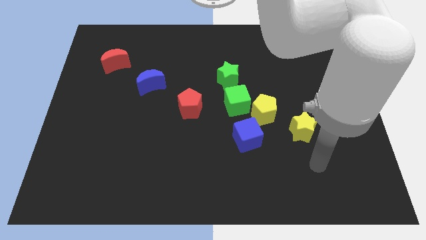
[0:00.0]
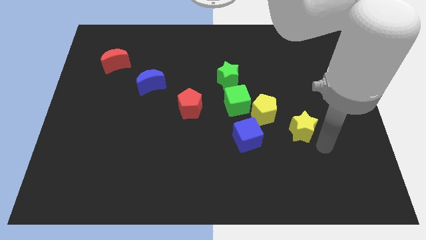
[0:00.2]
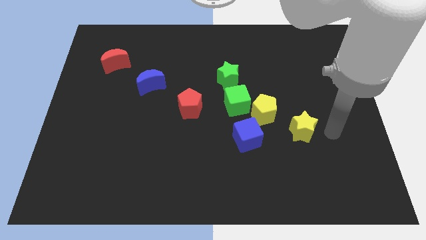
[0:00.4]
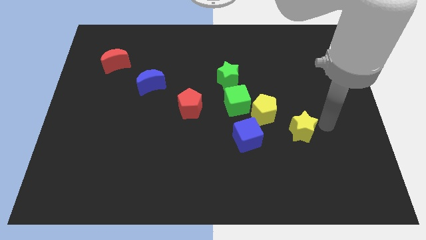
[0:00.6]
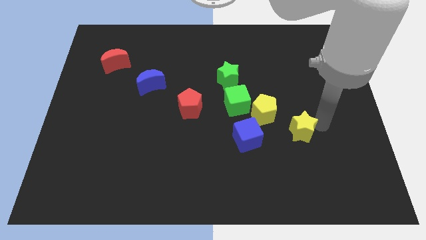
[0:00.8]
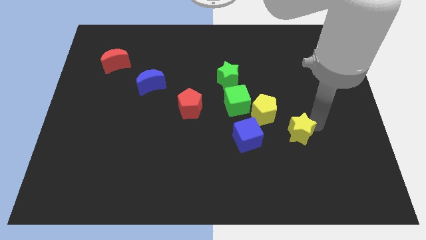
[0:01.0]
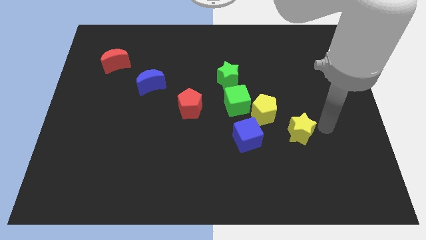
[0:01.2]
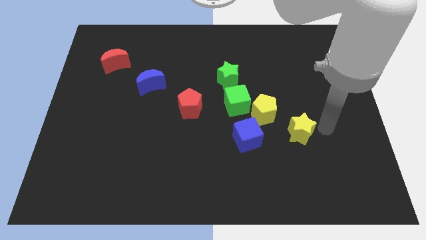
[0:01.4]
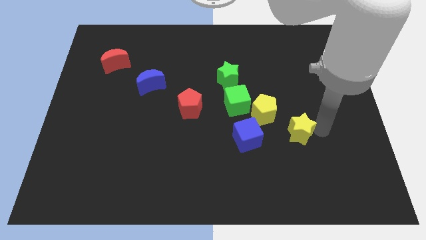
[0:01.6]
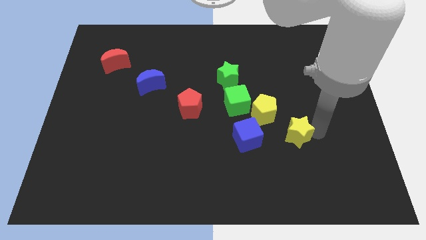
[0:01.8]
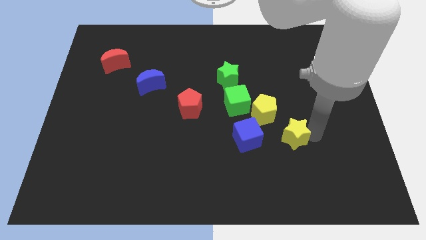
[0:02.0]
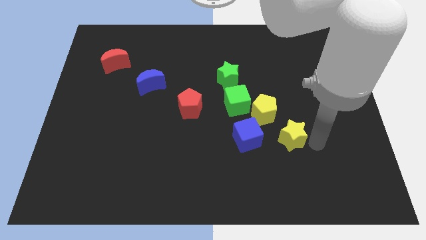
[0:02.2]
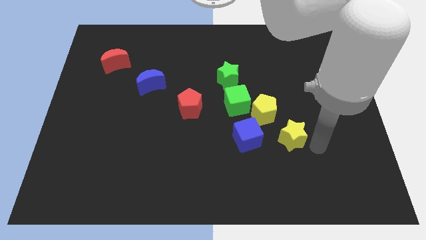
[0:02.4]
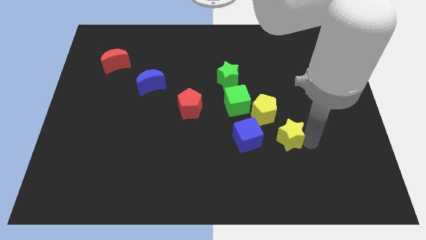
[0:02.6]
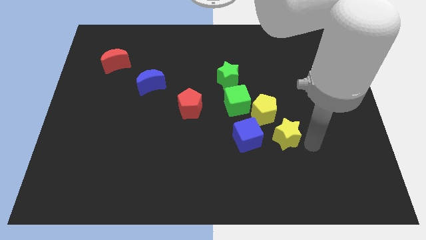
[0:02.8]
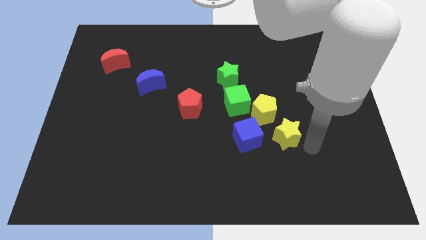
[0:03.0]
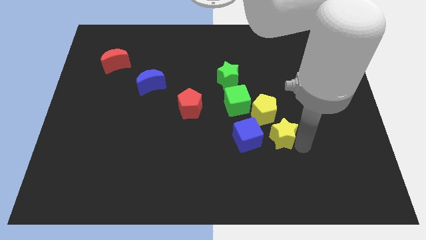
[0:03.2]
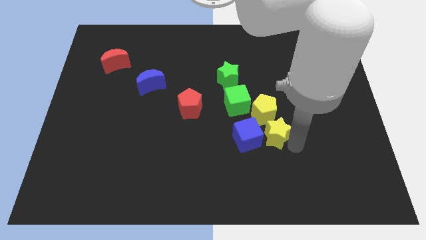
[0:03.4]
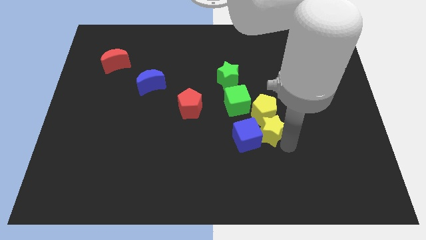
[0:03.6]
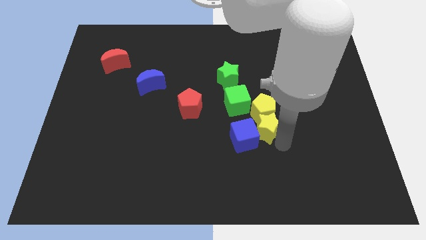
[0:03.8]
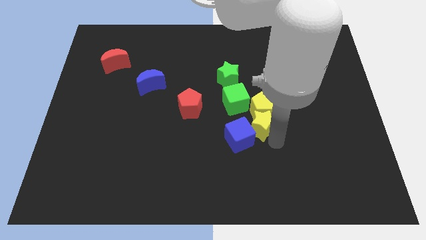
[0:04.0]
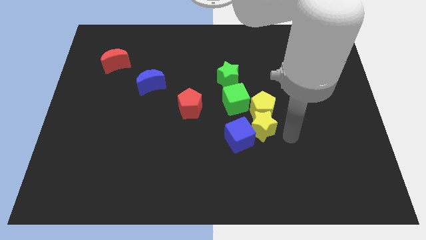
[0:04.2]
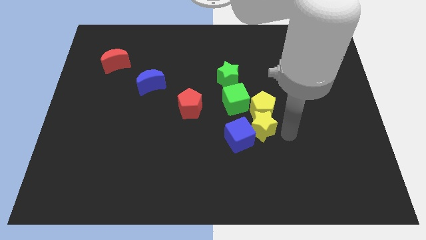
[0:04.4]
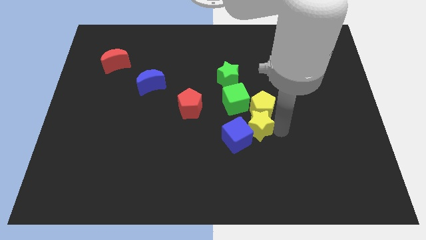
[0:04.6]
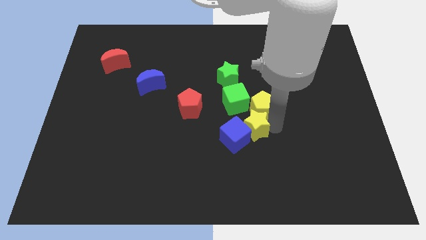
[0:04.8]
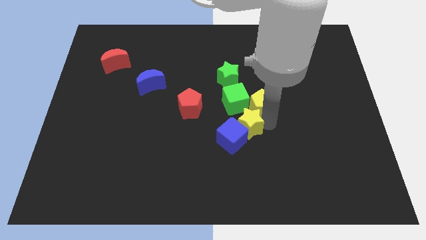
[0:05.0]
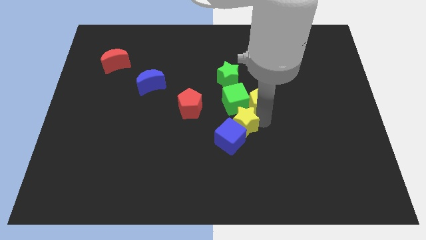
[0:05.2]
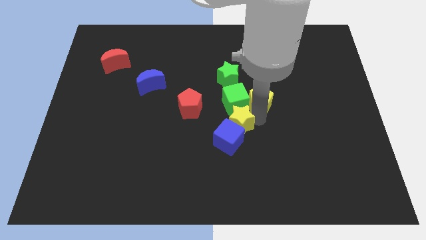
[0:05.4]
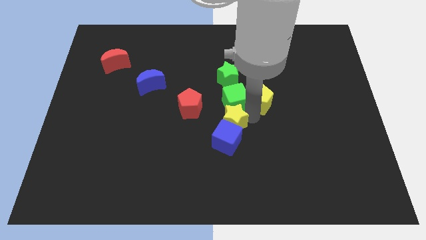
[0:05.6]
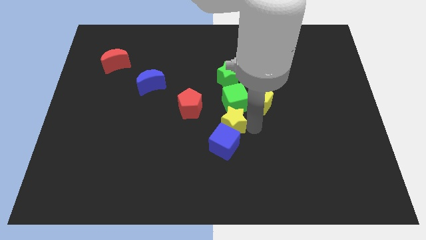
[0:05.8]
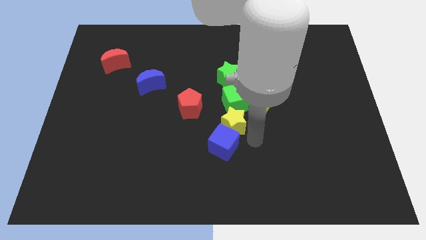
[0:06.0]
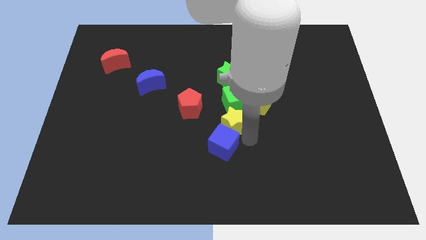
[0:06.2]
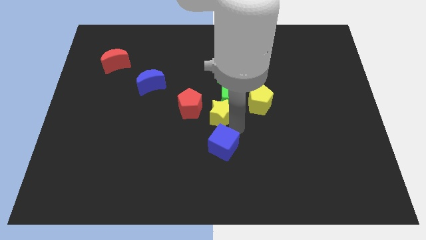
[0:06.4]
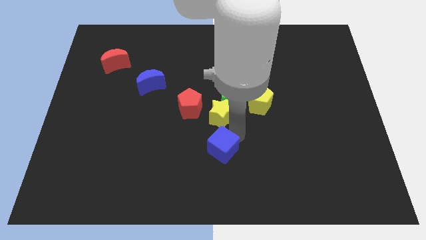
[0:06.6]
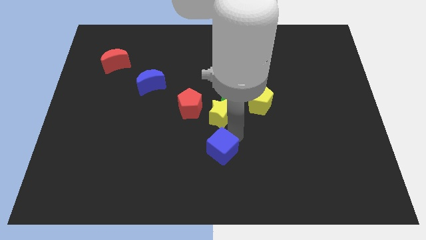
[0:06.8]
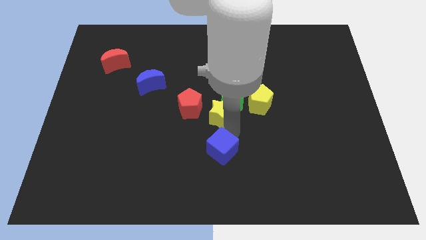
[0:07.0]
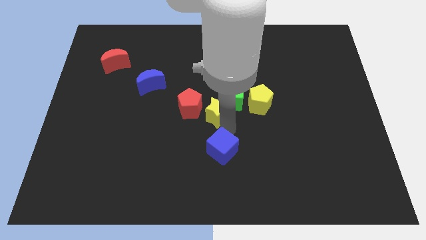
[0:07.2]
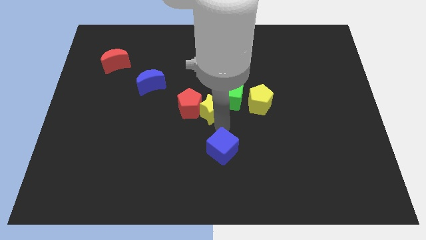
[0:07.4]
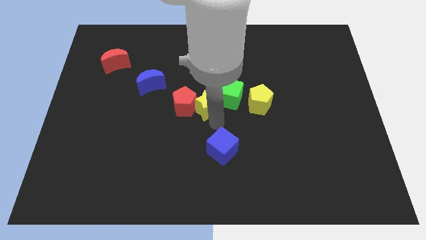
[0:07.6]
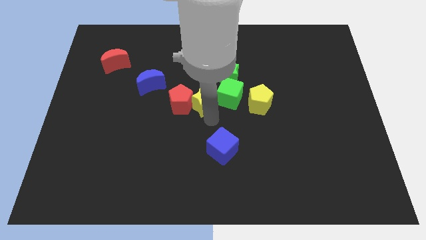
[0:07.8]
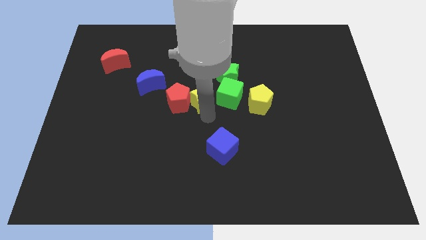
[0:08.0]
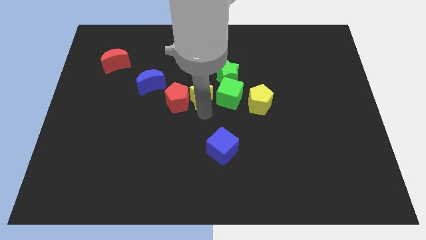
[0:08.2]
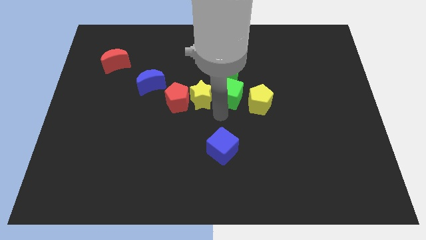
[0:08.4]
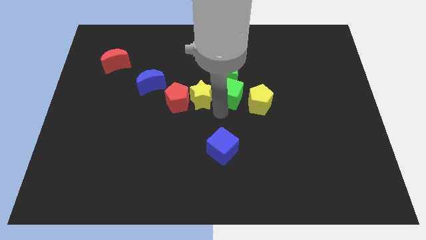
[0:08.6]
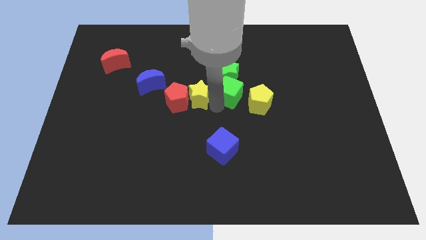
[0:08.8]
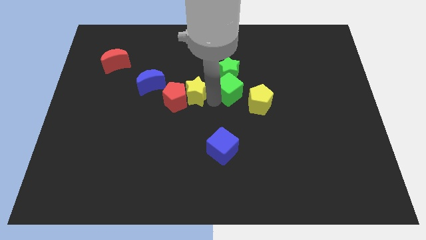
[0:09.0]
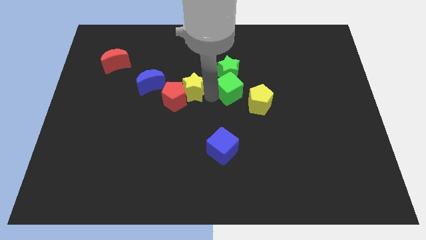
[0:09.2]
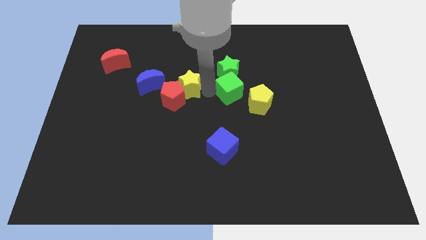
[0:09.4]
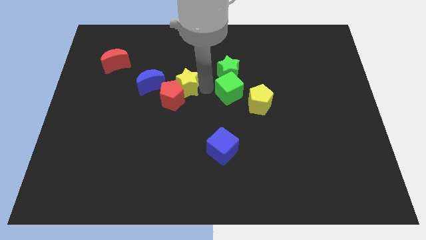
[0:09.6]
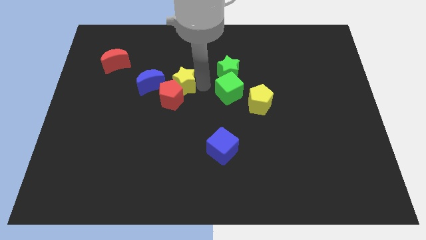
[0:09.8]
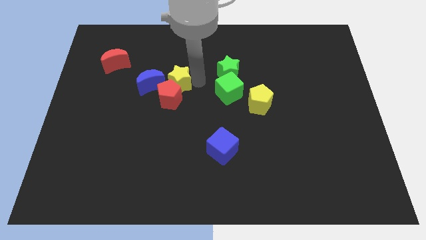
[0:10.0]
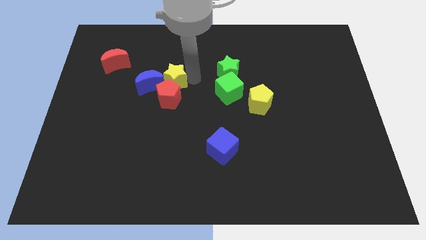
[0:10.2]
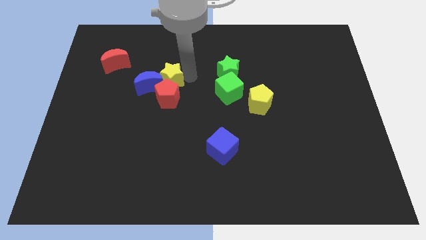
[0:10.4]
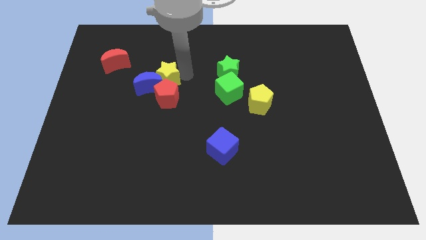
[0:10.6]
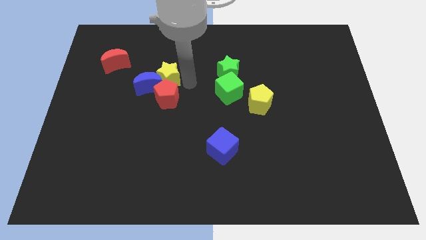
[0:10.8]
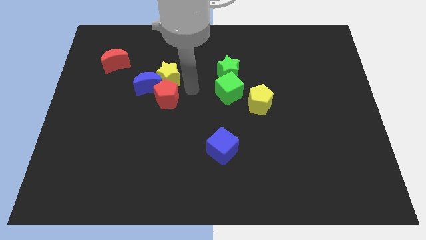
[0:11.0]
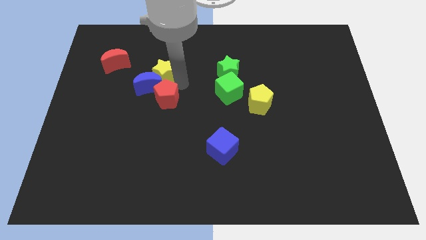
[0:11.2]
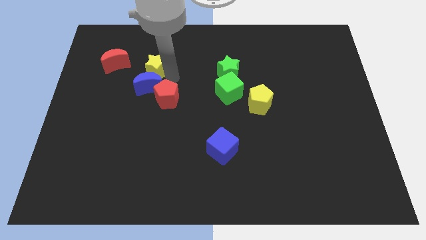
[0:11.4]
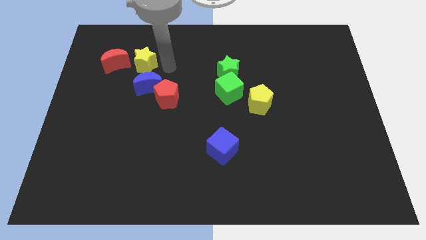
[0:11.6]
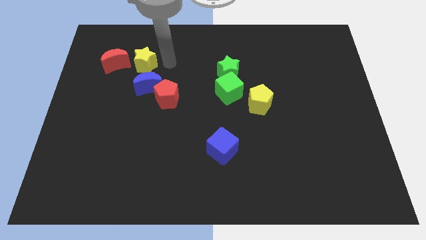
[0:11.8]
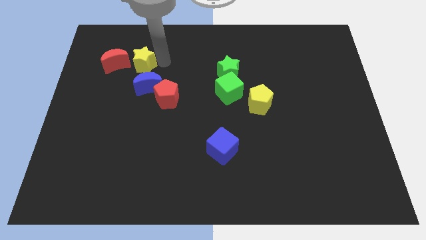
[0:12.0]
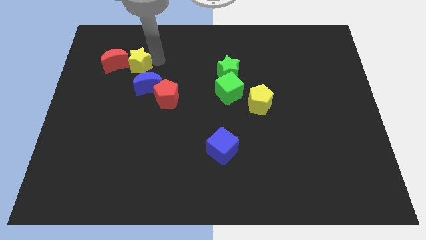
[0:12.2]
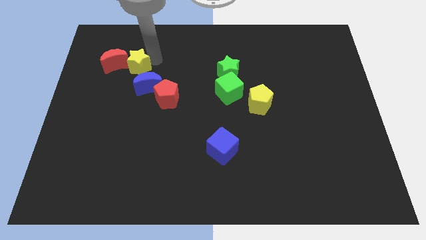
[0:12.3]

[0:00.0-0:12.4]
put the yellow star close to the red moon

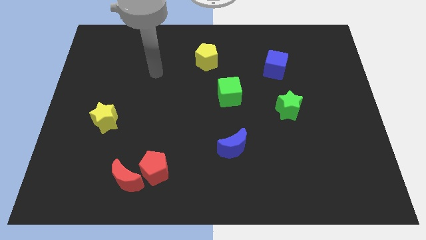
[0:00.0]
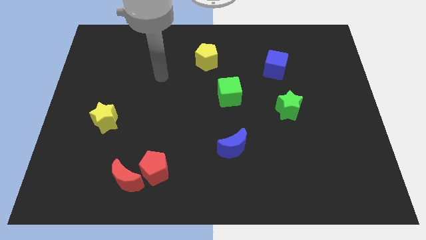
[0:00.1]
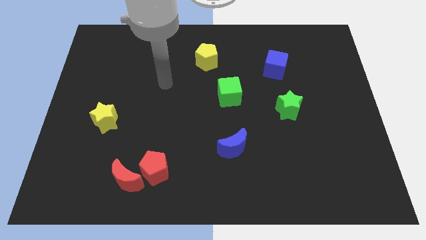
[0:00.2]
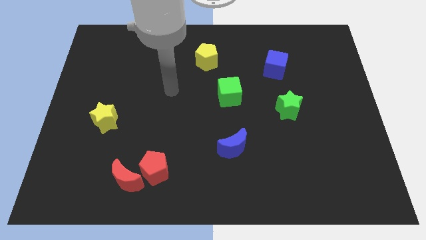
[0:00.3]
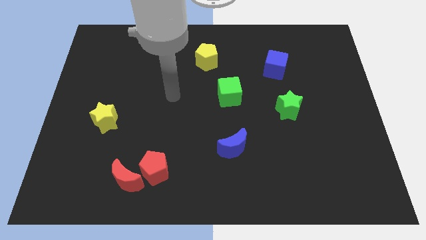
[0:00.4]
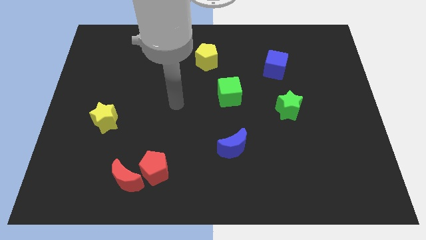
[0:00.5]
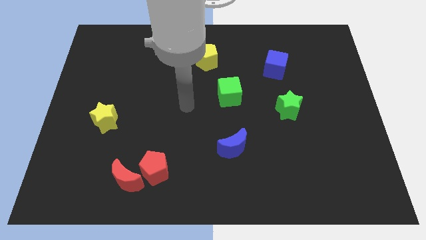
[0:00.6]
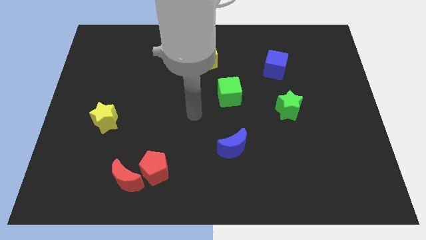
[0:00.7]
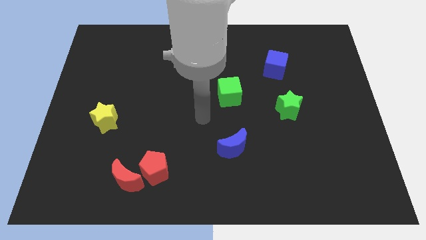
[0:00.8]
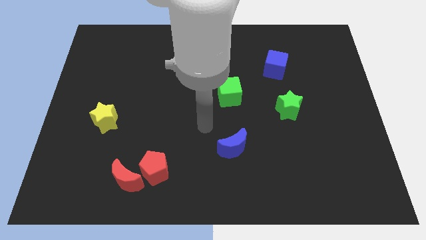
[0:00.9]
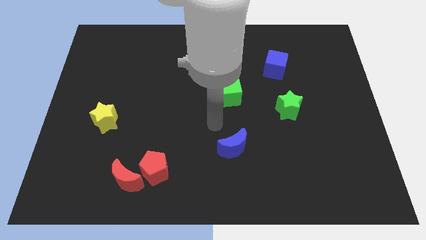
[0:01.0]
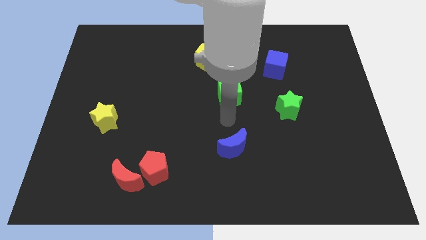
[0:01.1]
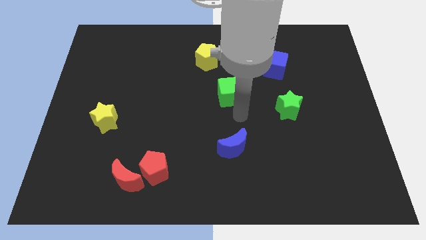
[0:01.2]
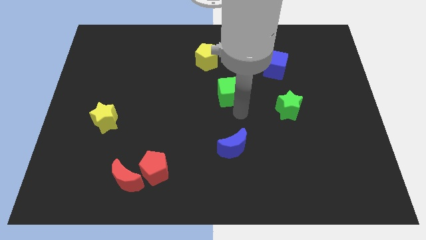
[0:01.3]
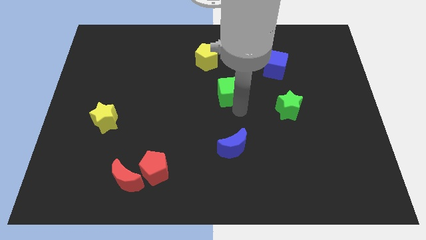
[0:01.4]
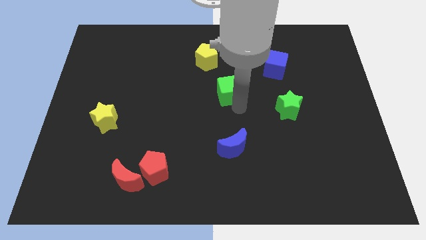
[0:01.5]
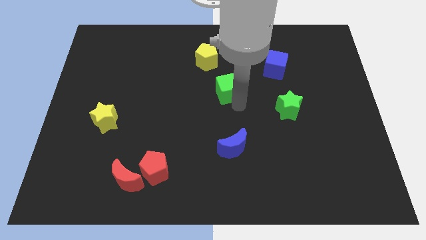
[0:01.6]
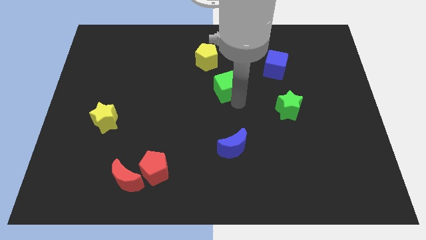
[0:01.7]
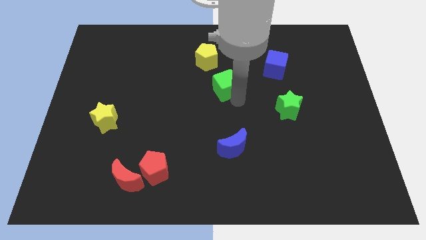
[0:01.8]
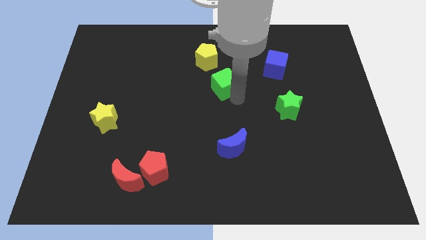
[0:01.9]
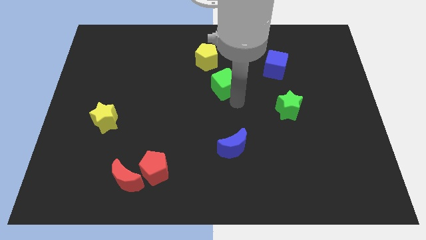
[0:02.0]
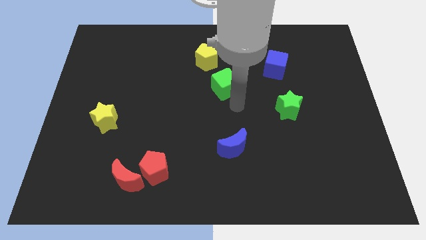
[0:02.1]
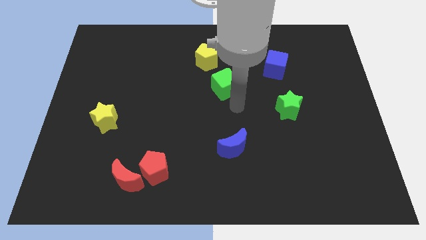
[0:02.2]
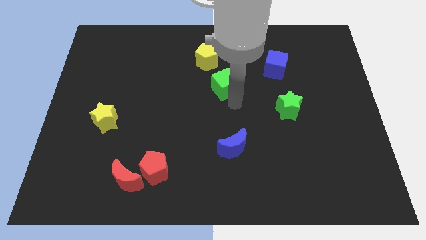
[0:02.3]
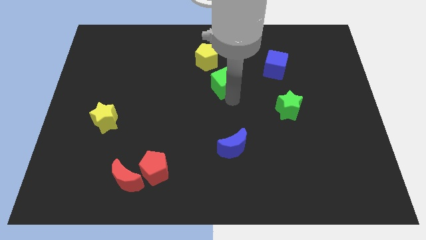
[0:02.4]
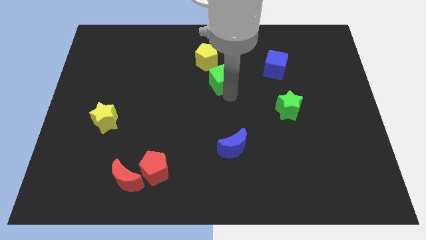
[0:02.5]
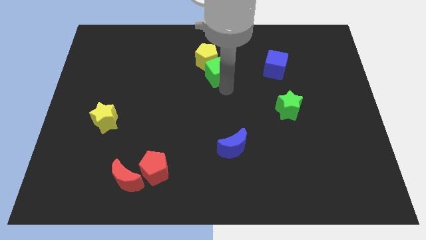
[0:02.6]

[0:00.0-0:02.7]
slide the green cube towards the yellow pentagon
